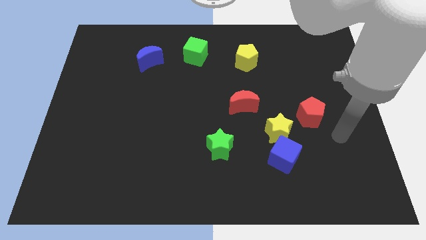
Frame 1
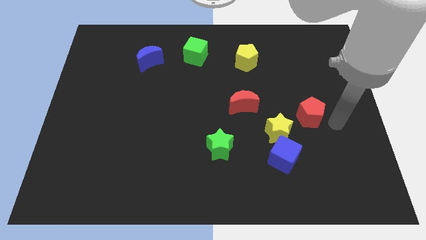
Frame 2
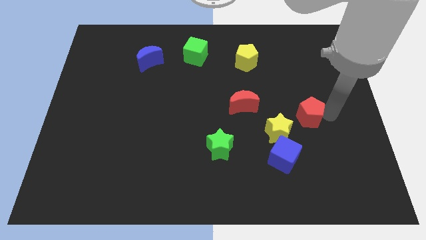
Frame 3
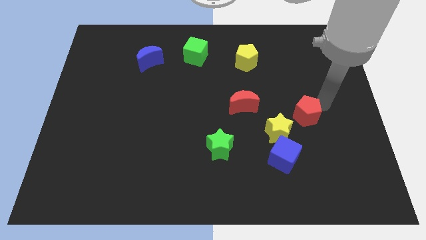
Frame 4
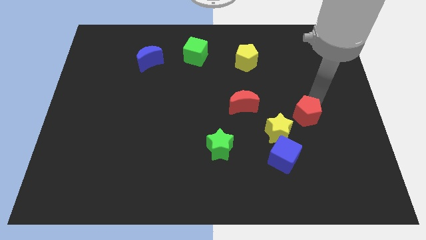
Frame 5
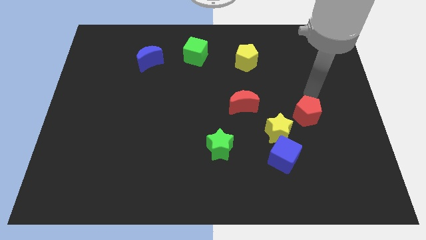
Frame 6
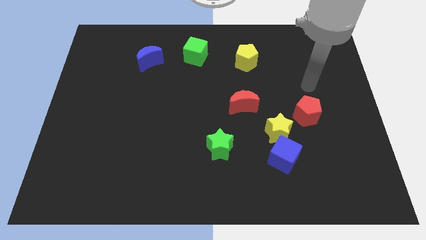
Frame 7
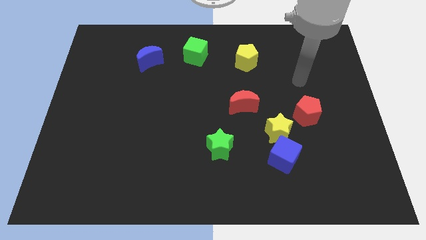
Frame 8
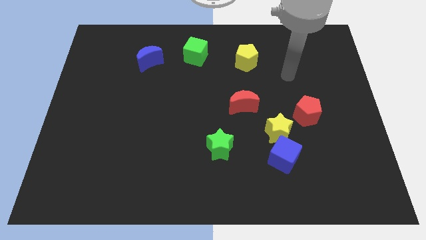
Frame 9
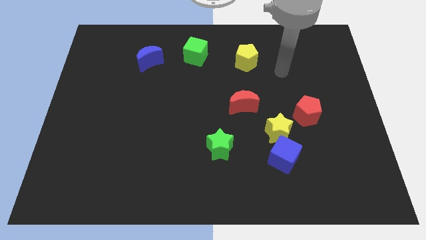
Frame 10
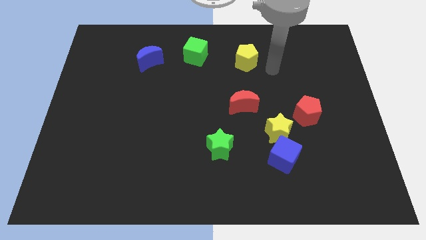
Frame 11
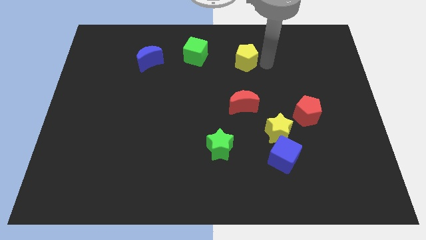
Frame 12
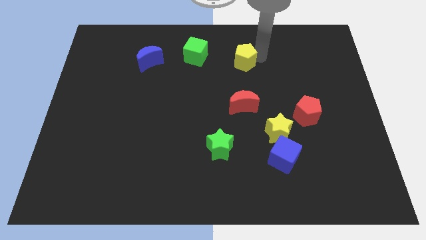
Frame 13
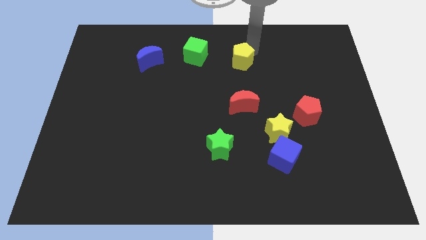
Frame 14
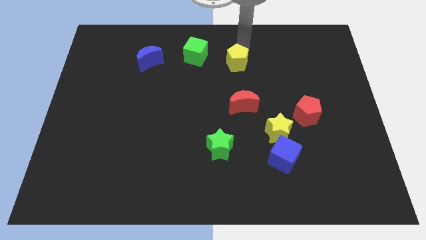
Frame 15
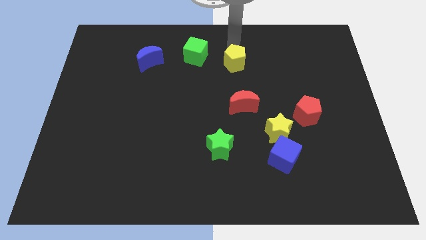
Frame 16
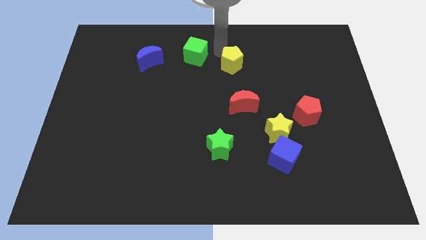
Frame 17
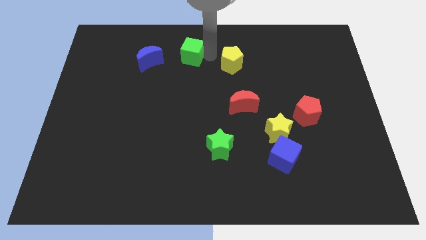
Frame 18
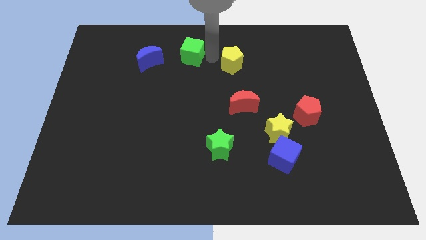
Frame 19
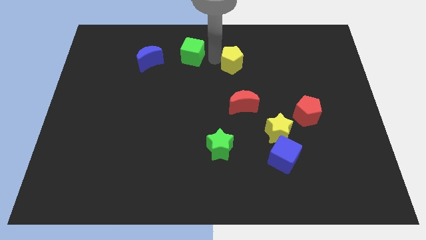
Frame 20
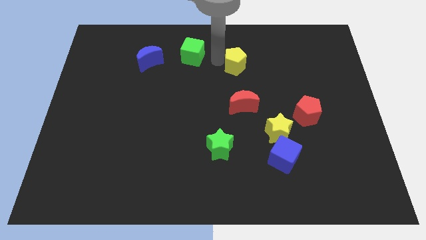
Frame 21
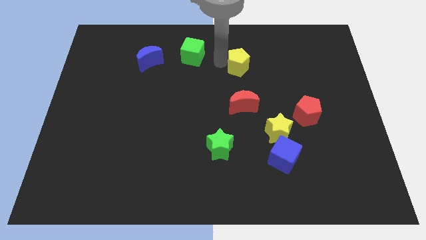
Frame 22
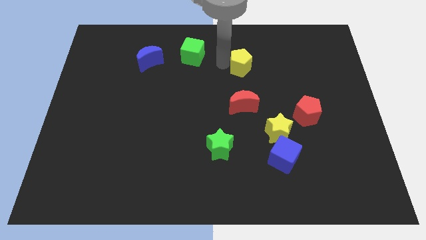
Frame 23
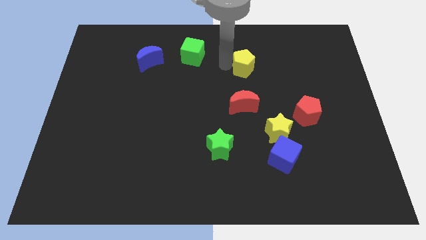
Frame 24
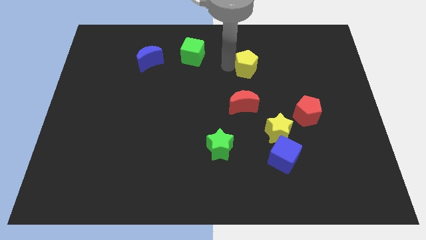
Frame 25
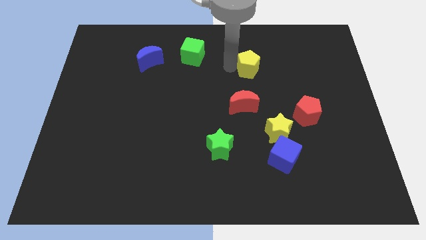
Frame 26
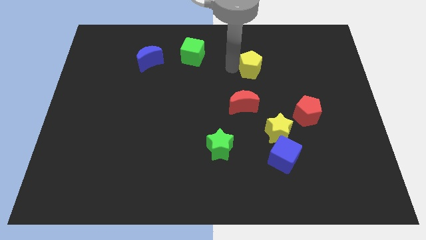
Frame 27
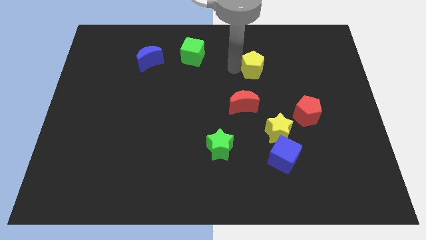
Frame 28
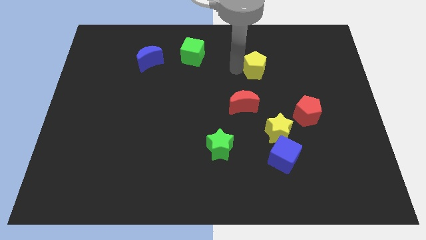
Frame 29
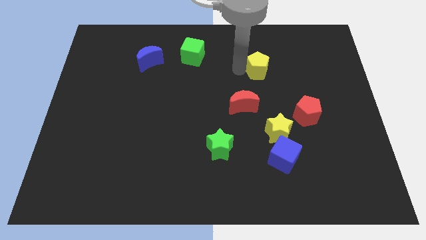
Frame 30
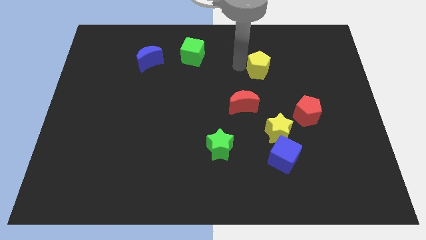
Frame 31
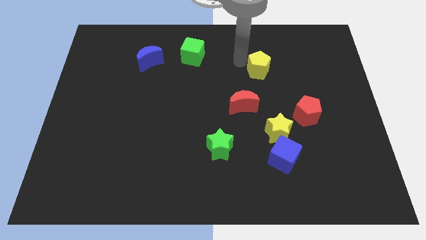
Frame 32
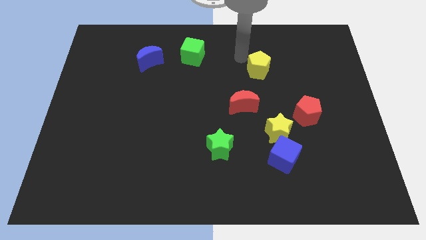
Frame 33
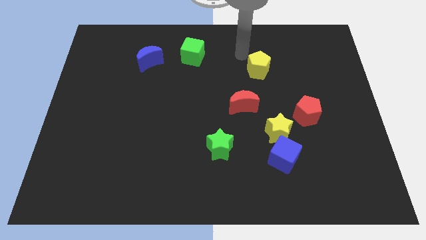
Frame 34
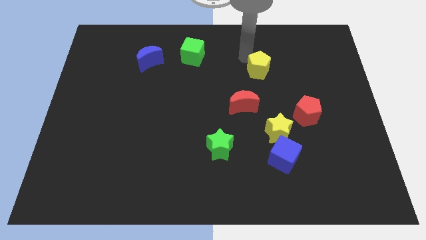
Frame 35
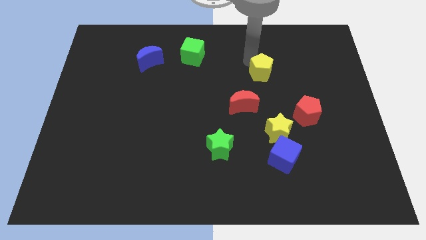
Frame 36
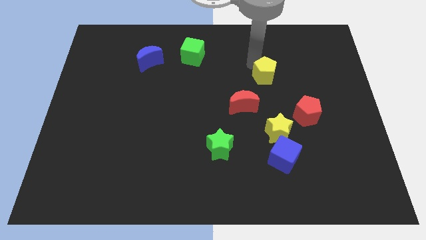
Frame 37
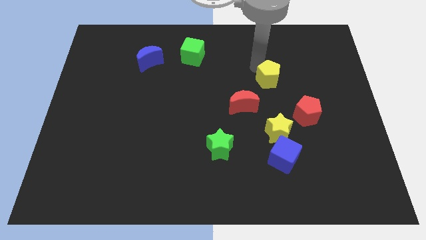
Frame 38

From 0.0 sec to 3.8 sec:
slightly push the yellow pentagon down and then to the right

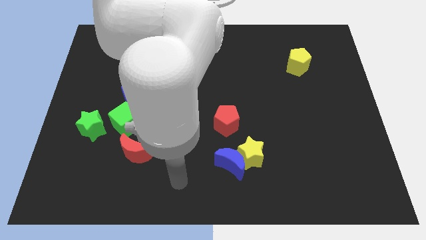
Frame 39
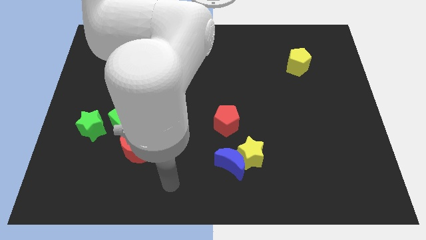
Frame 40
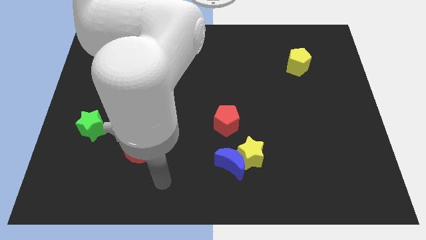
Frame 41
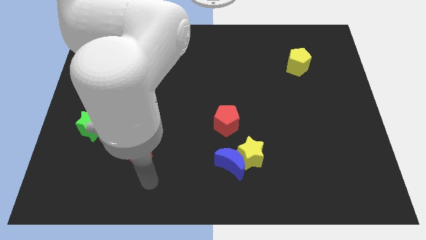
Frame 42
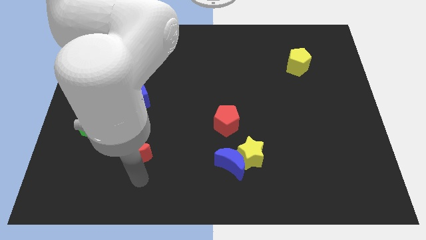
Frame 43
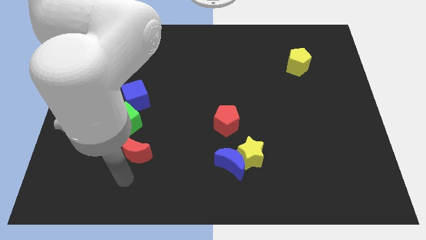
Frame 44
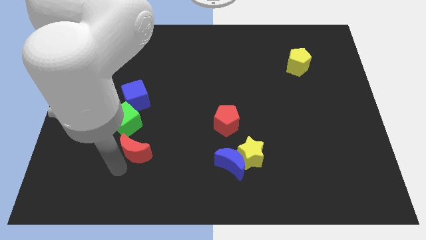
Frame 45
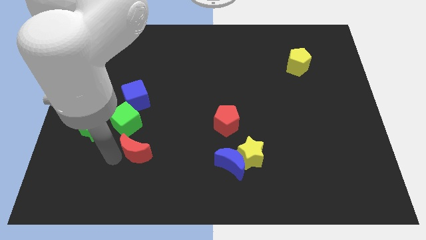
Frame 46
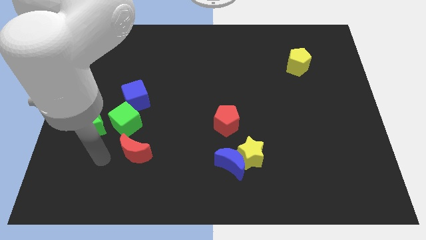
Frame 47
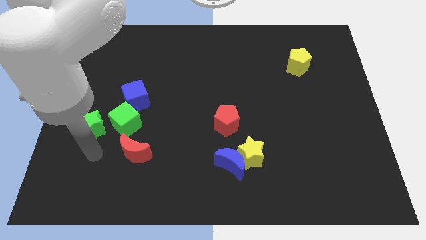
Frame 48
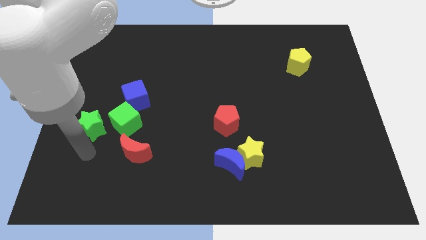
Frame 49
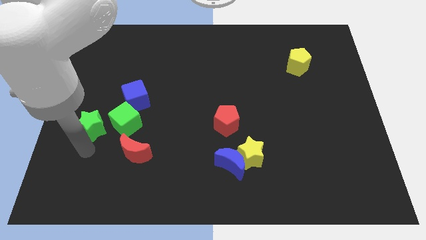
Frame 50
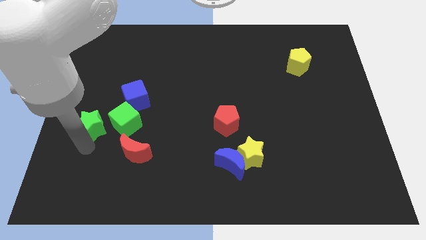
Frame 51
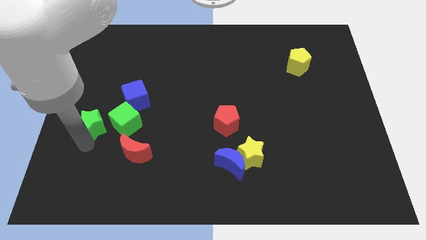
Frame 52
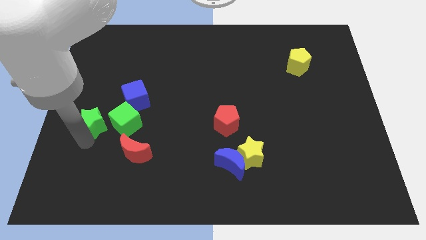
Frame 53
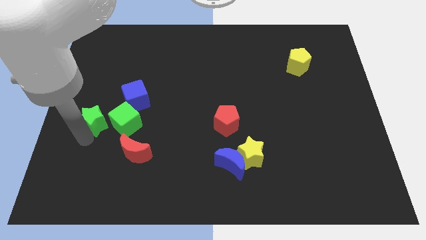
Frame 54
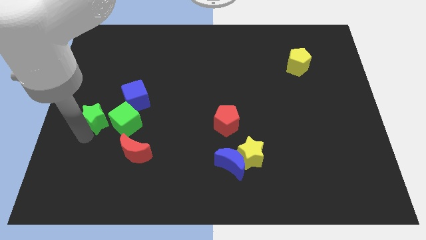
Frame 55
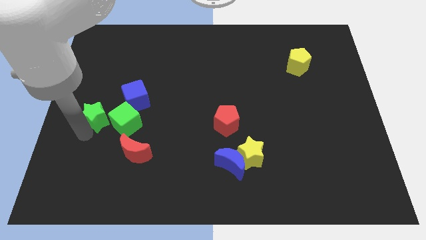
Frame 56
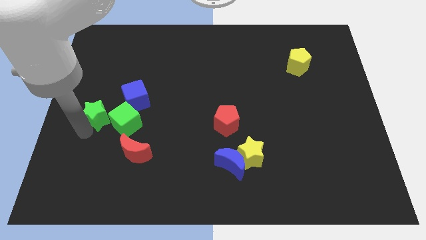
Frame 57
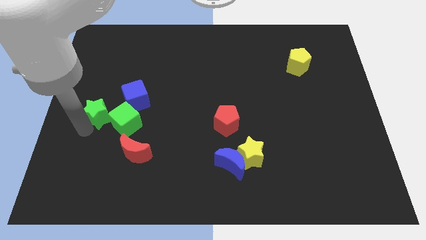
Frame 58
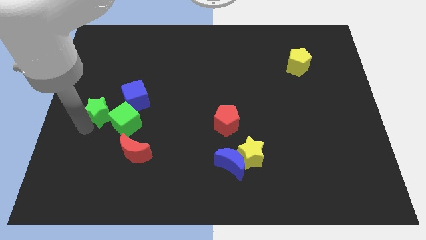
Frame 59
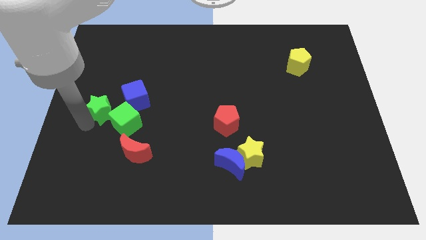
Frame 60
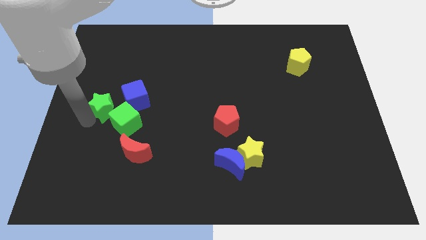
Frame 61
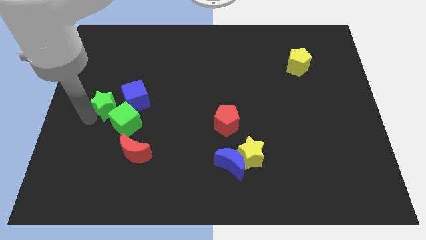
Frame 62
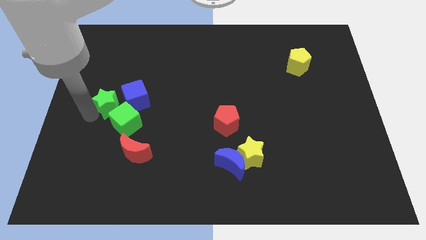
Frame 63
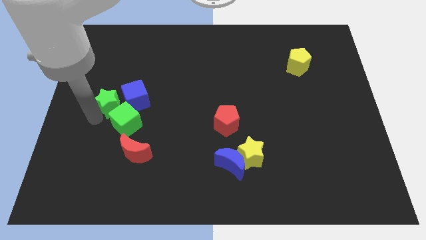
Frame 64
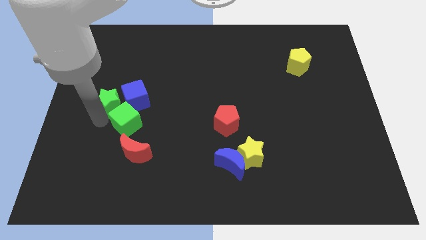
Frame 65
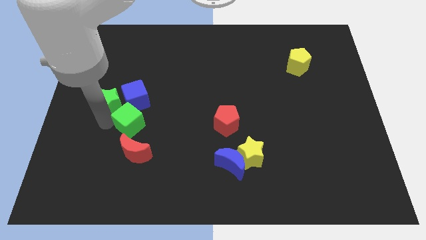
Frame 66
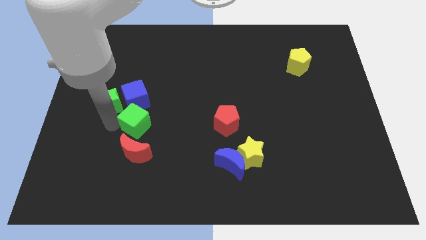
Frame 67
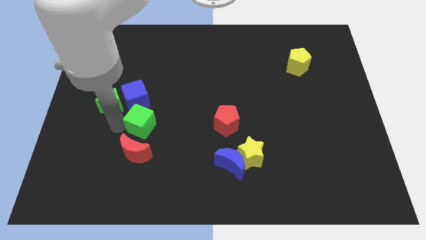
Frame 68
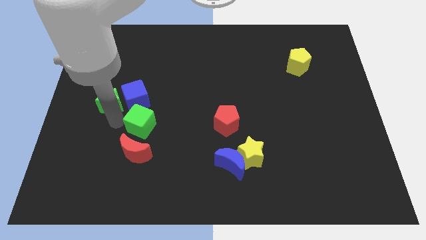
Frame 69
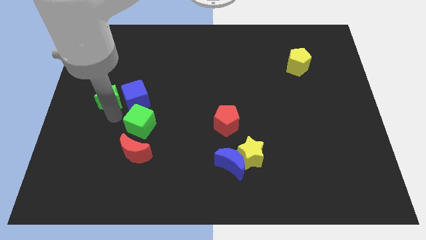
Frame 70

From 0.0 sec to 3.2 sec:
move the green star a little up

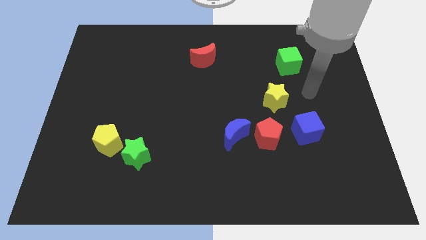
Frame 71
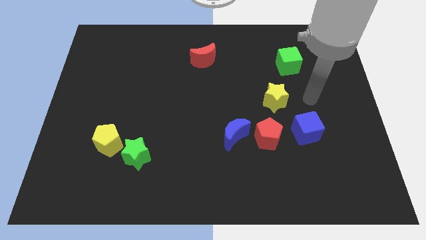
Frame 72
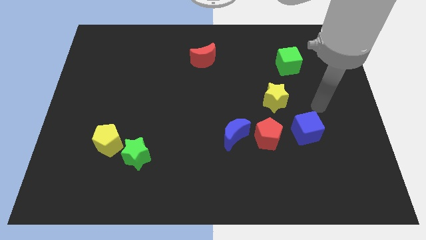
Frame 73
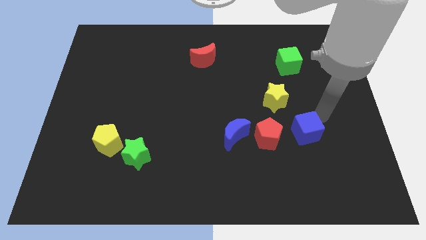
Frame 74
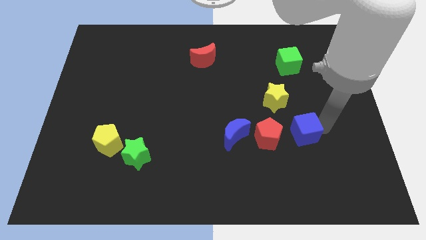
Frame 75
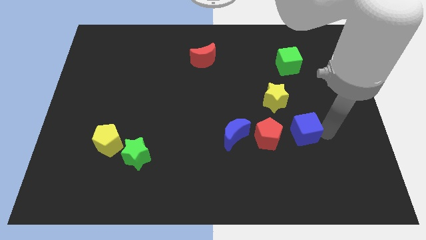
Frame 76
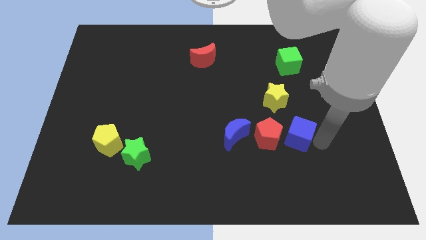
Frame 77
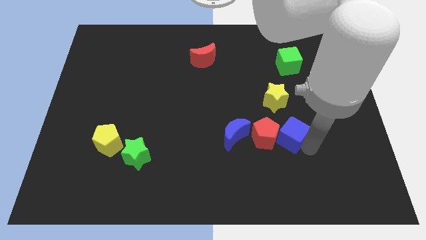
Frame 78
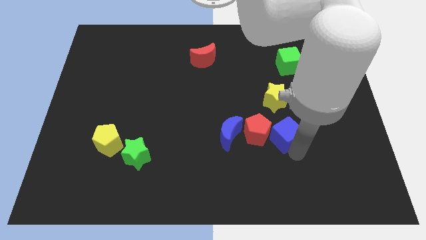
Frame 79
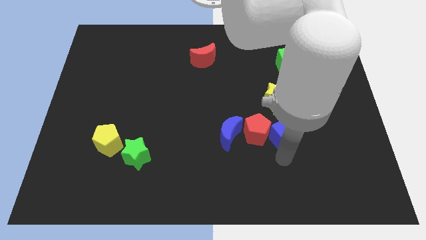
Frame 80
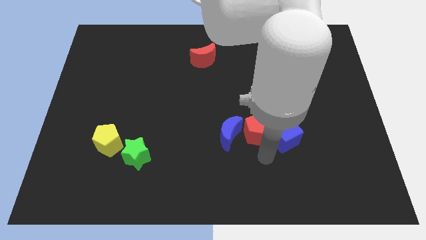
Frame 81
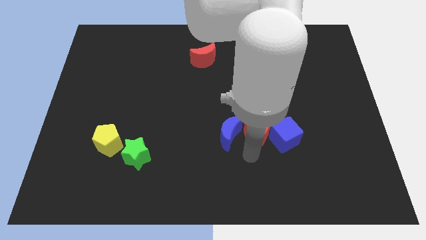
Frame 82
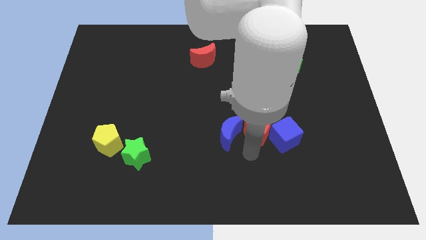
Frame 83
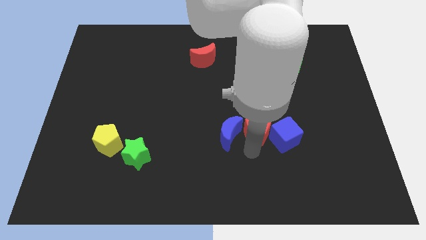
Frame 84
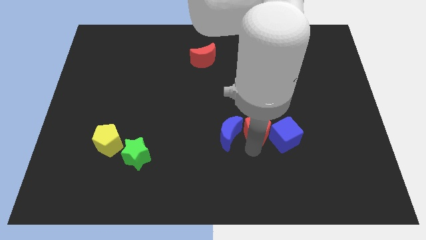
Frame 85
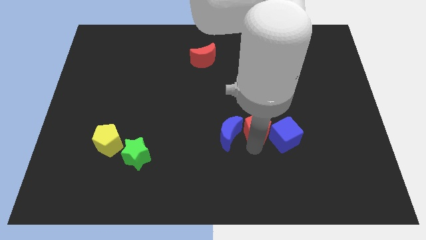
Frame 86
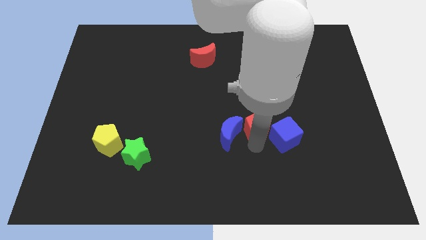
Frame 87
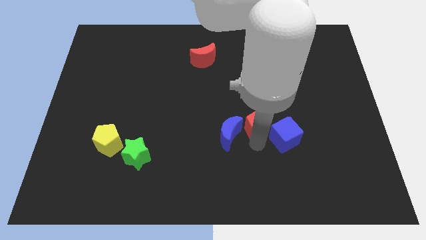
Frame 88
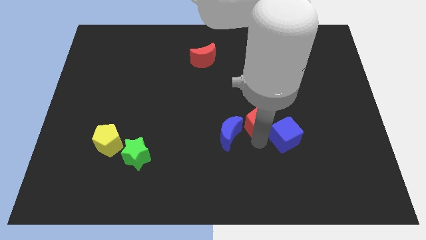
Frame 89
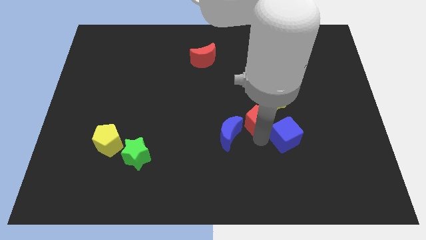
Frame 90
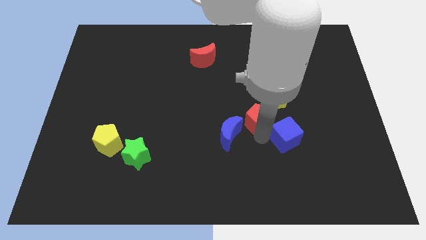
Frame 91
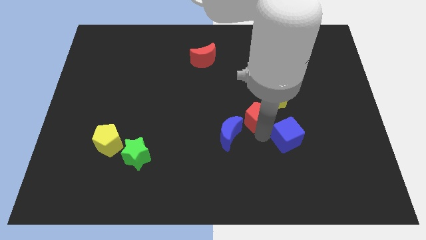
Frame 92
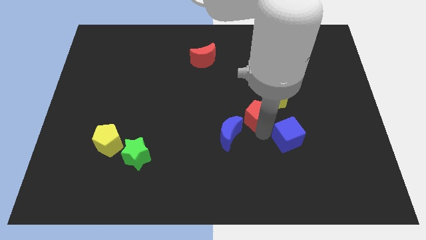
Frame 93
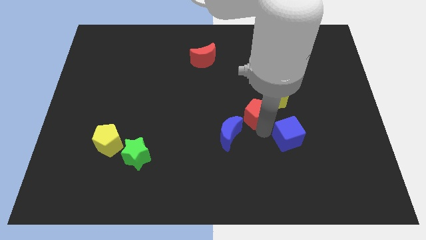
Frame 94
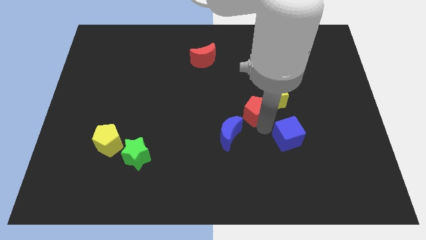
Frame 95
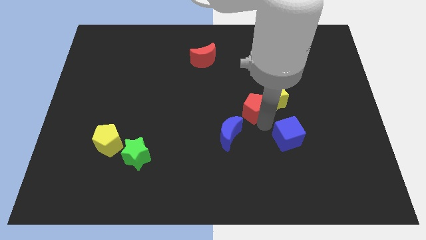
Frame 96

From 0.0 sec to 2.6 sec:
push the red pentagon upwards somewhat
